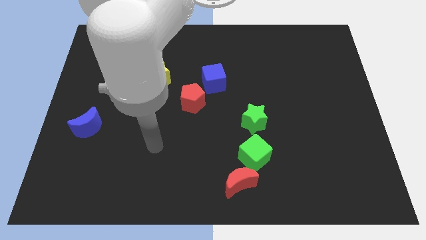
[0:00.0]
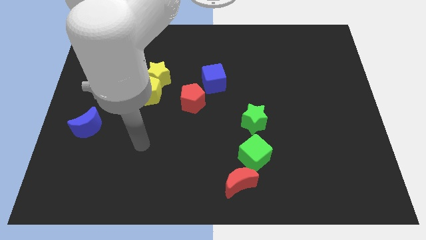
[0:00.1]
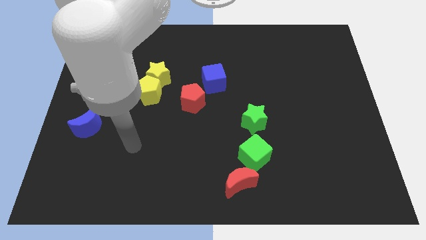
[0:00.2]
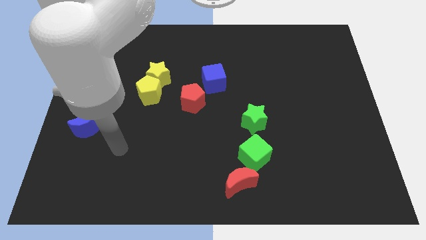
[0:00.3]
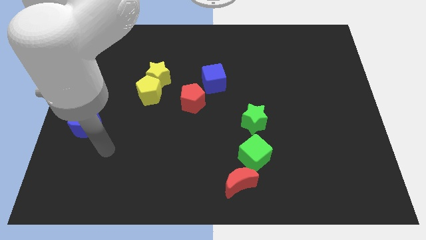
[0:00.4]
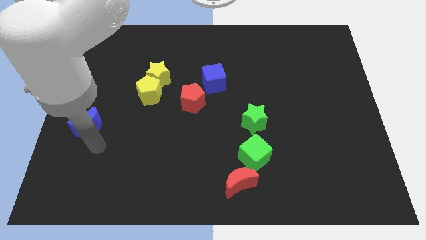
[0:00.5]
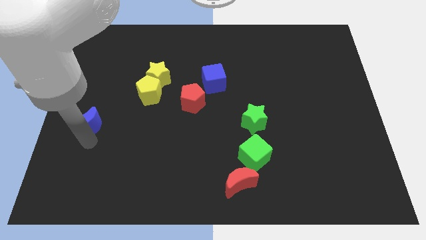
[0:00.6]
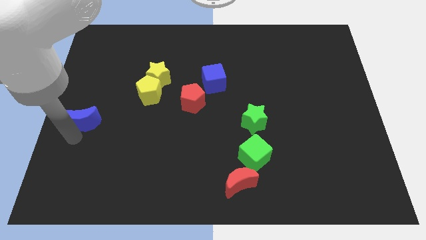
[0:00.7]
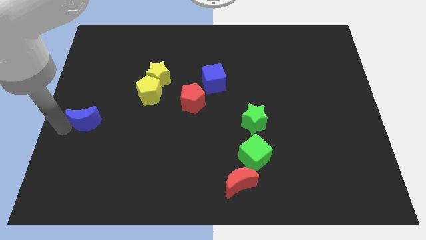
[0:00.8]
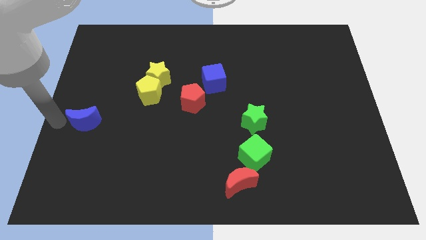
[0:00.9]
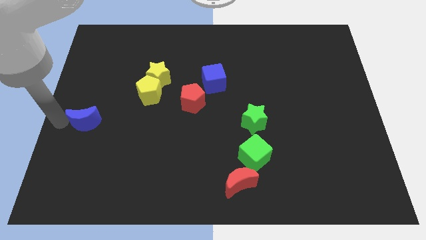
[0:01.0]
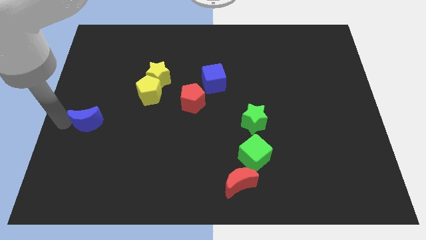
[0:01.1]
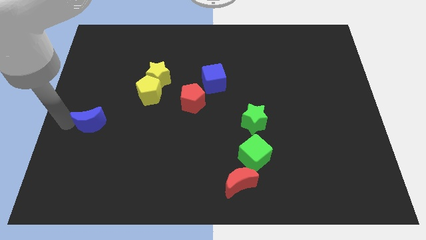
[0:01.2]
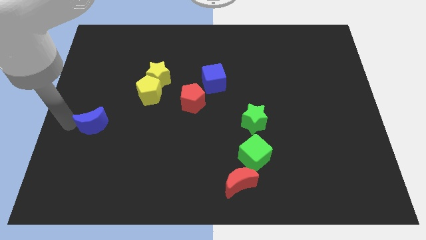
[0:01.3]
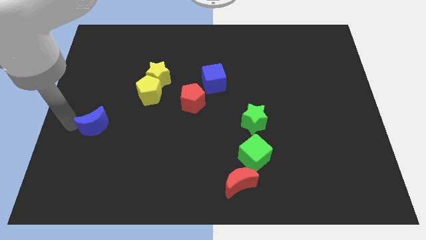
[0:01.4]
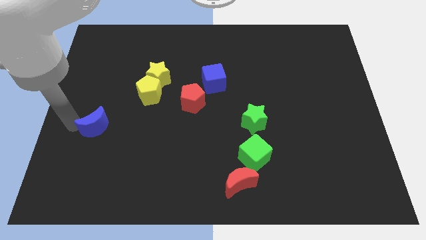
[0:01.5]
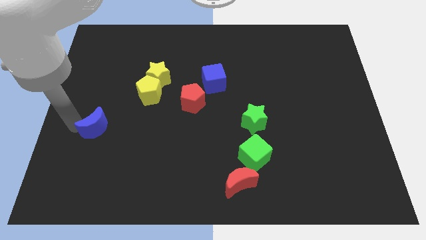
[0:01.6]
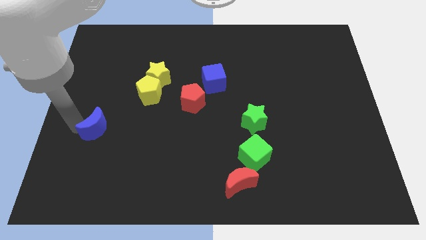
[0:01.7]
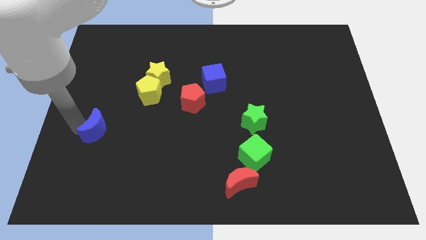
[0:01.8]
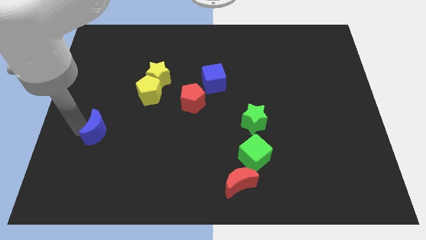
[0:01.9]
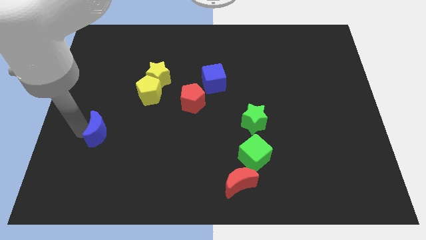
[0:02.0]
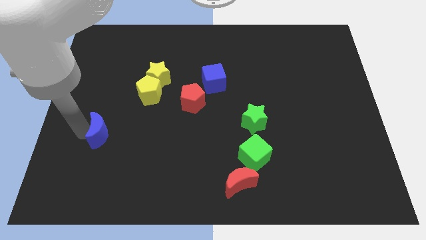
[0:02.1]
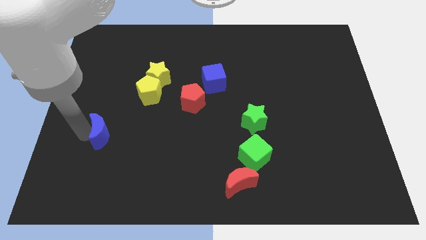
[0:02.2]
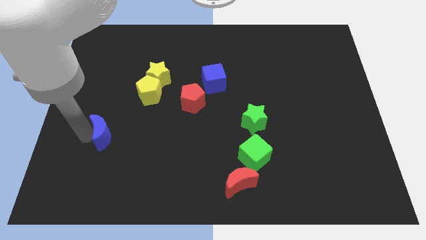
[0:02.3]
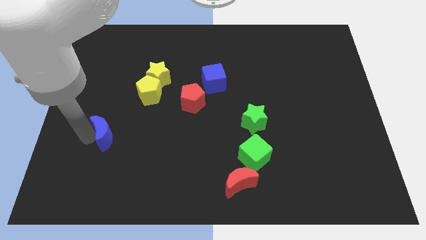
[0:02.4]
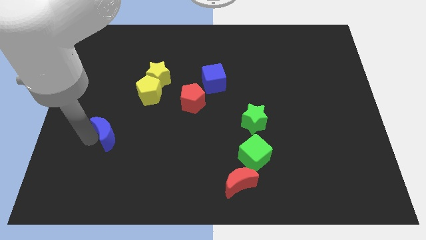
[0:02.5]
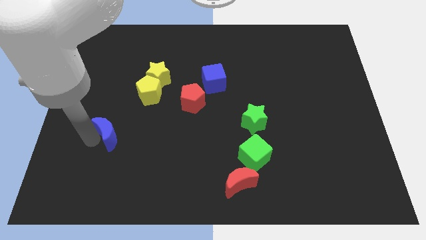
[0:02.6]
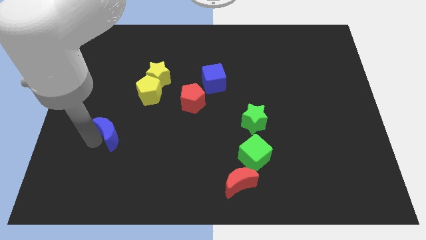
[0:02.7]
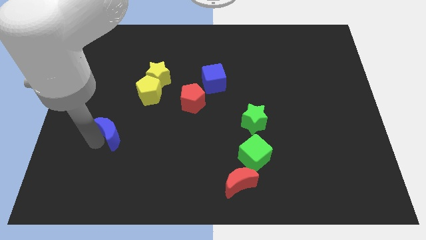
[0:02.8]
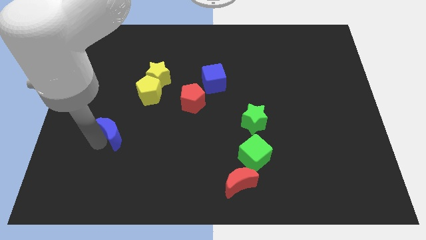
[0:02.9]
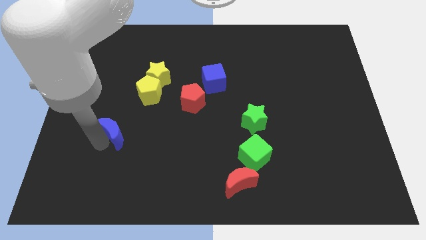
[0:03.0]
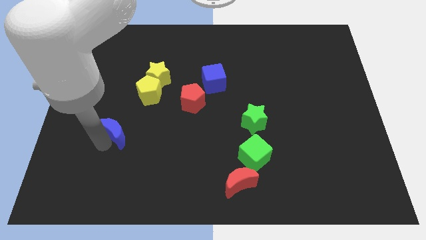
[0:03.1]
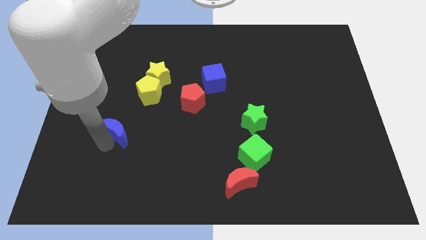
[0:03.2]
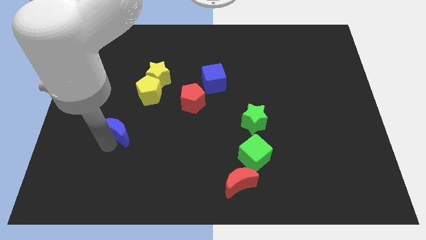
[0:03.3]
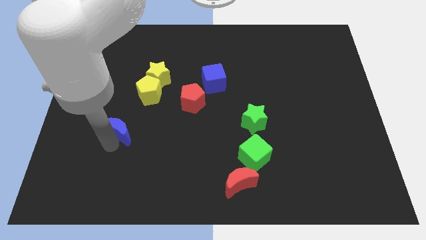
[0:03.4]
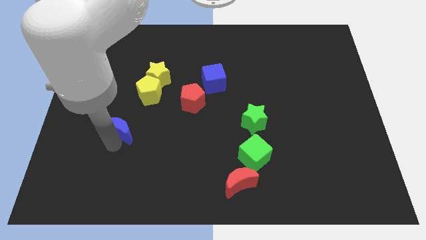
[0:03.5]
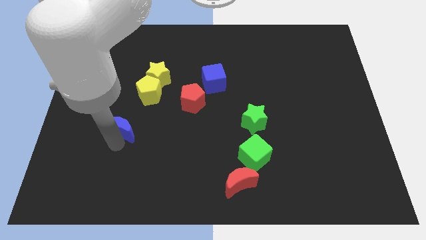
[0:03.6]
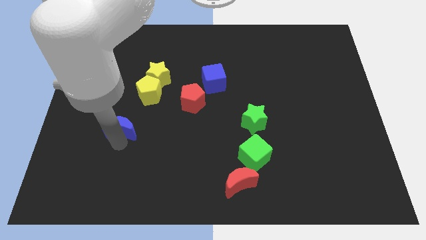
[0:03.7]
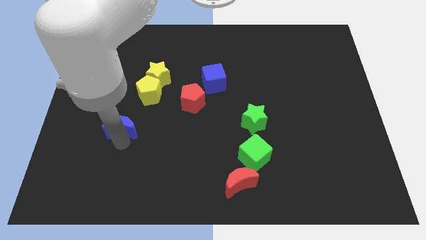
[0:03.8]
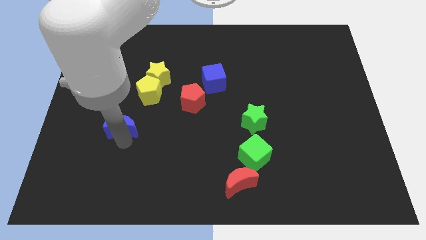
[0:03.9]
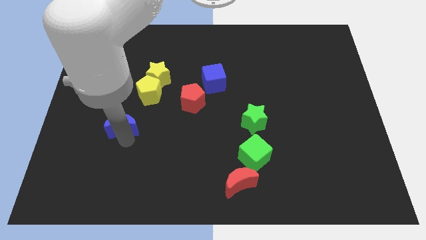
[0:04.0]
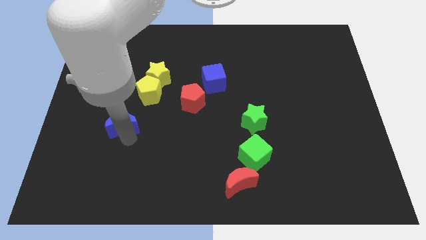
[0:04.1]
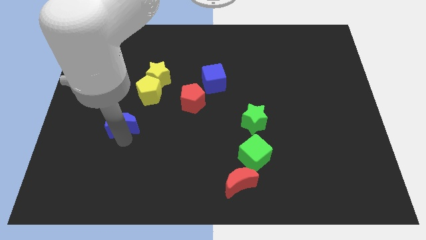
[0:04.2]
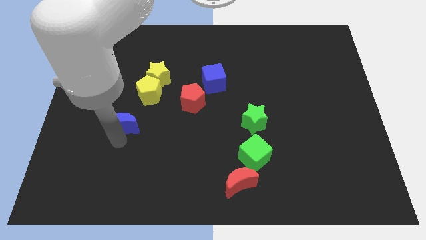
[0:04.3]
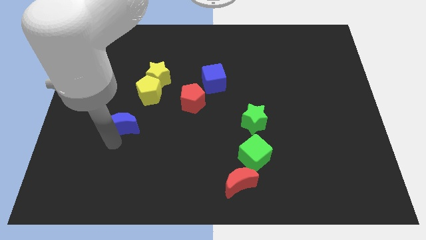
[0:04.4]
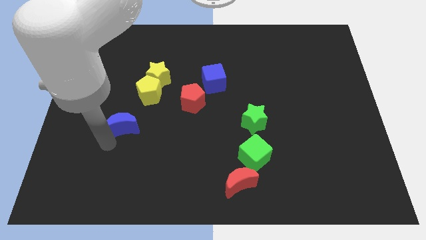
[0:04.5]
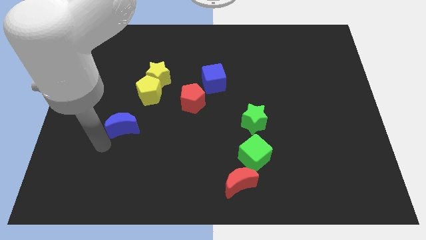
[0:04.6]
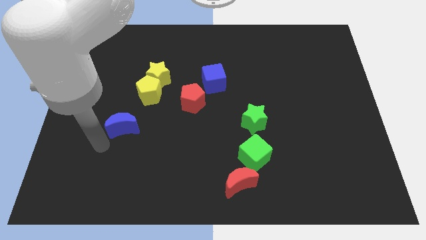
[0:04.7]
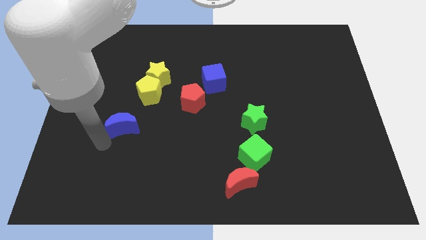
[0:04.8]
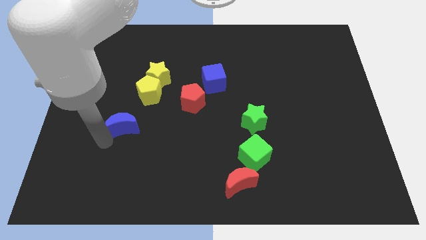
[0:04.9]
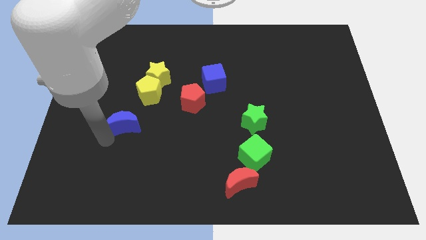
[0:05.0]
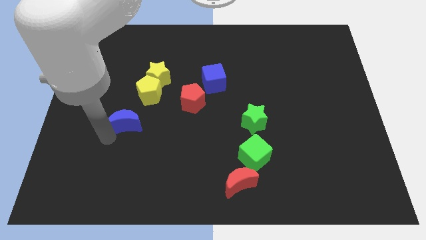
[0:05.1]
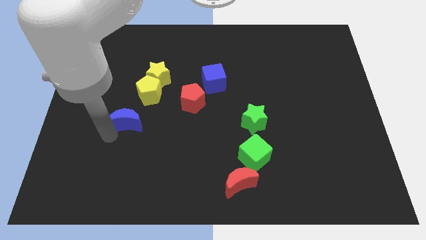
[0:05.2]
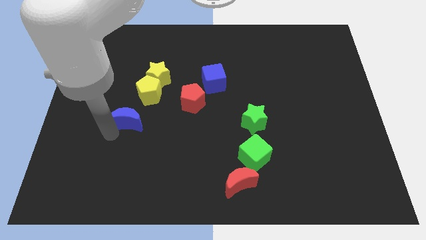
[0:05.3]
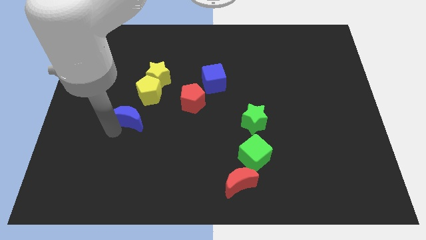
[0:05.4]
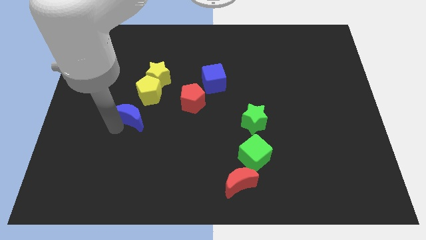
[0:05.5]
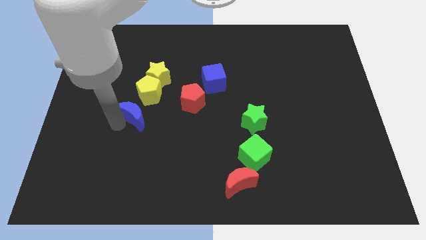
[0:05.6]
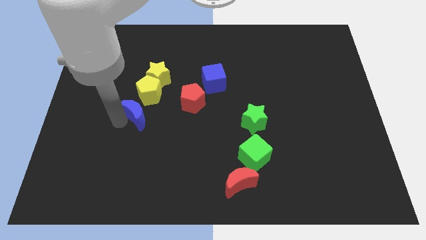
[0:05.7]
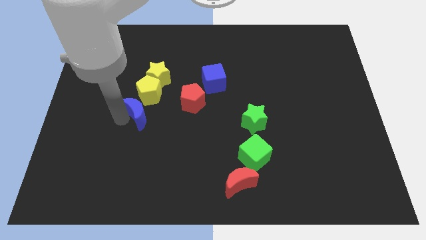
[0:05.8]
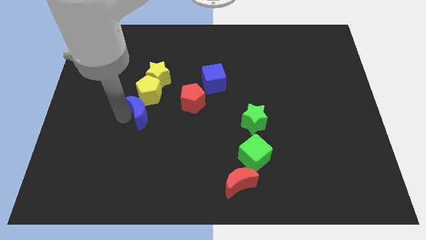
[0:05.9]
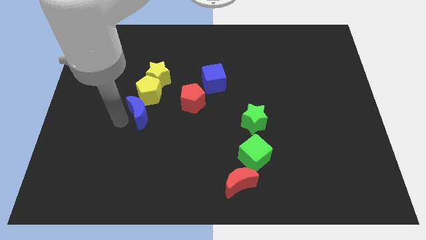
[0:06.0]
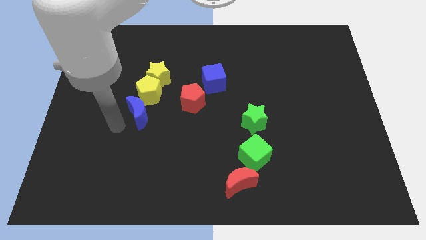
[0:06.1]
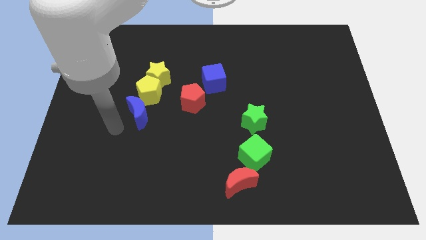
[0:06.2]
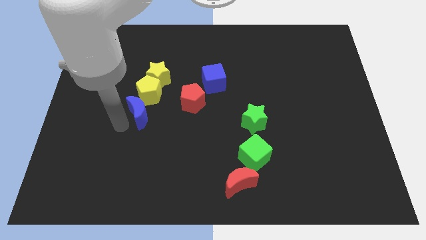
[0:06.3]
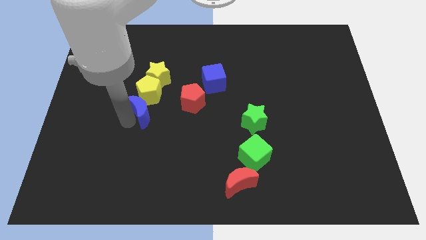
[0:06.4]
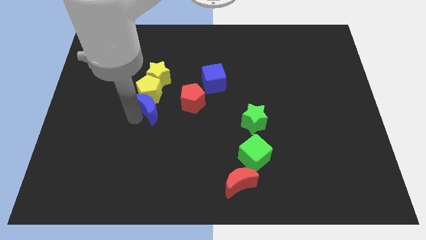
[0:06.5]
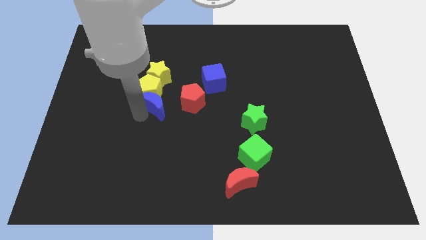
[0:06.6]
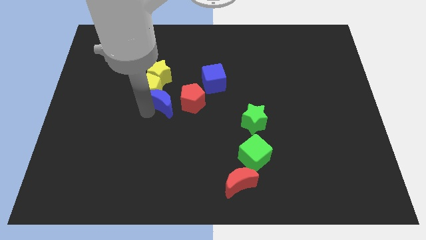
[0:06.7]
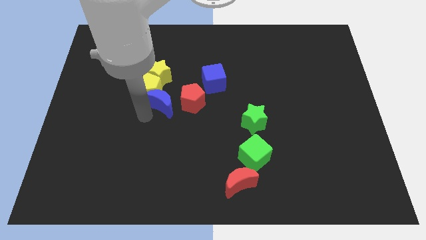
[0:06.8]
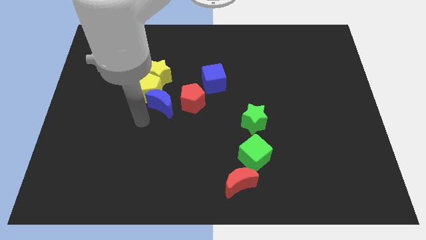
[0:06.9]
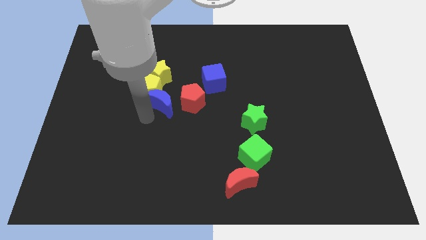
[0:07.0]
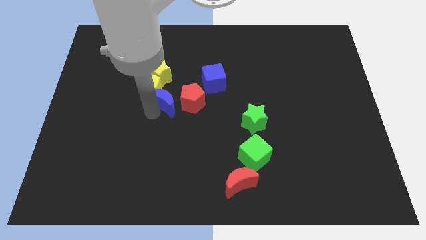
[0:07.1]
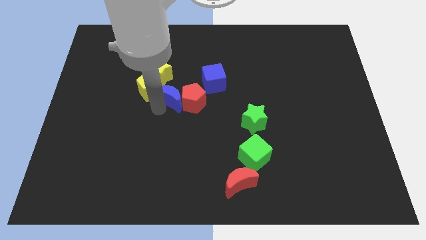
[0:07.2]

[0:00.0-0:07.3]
move the blue moon to the bottom right side of the yellow star

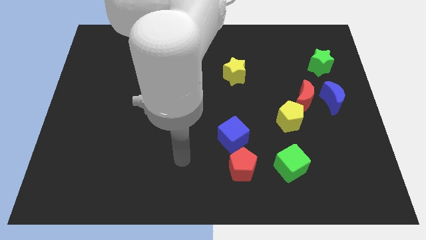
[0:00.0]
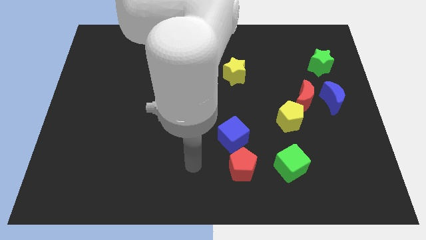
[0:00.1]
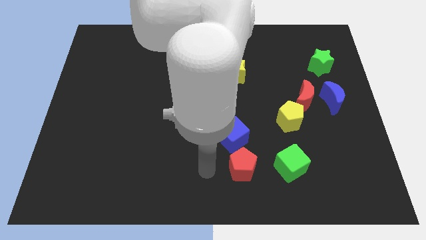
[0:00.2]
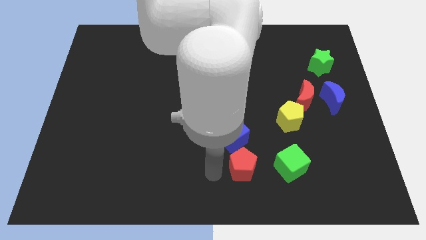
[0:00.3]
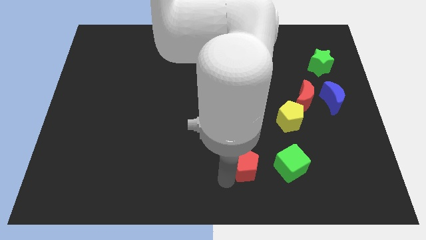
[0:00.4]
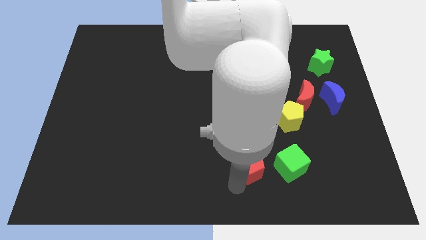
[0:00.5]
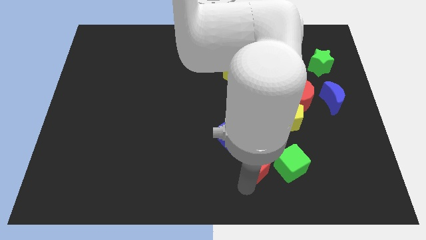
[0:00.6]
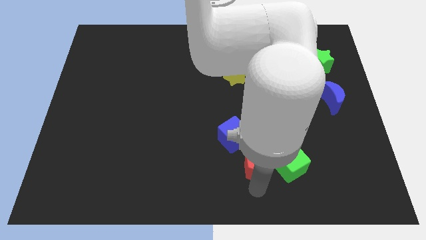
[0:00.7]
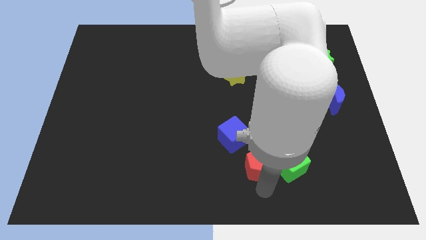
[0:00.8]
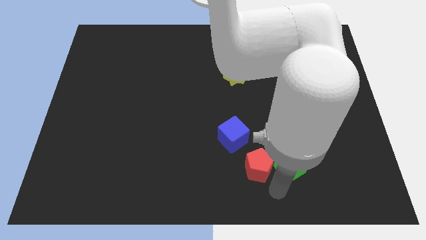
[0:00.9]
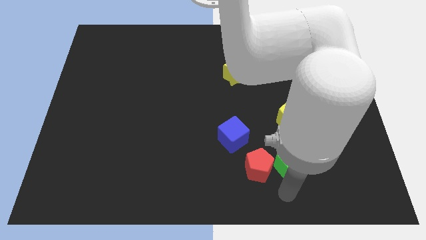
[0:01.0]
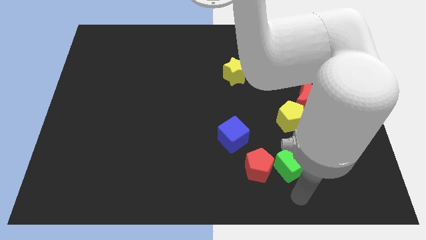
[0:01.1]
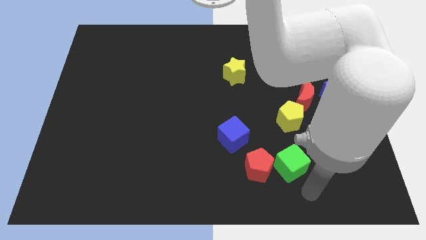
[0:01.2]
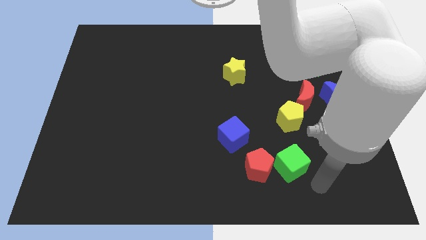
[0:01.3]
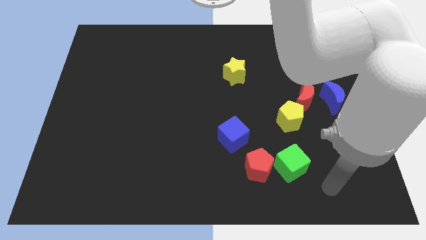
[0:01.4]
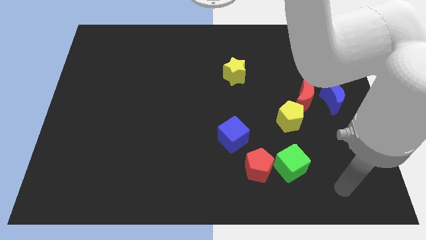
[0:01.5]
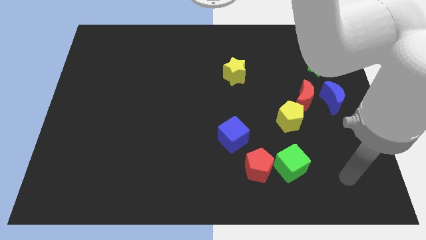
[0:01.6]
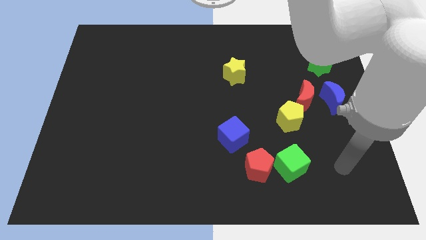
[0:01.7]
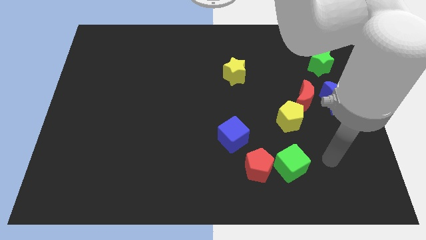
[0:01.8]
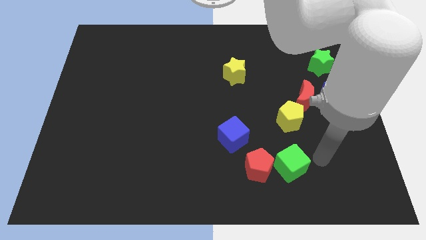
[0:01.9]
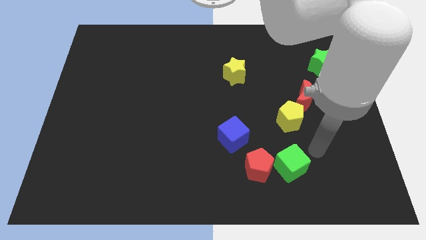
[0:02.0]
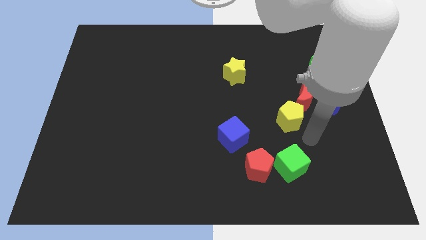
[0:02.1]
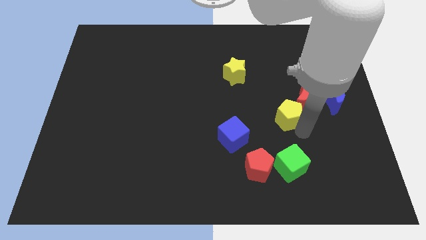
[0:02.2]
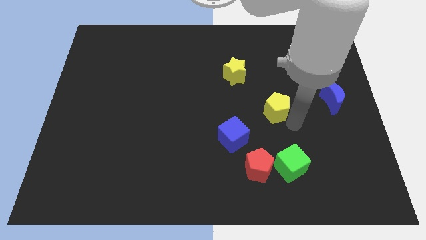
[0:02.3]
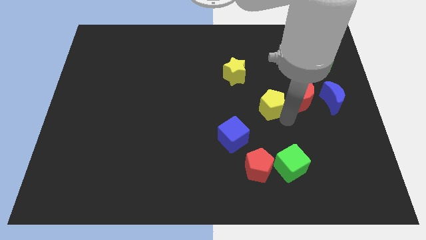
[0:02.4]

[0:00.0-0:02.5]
slide the yellow pentagon to the bottom right of the yellow star
